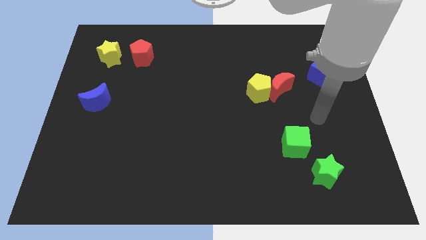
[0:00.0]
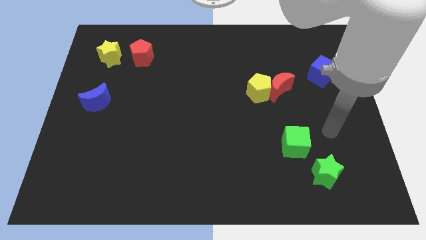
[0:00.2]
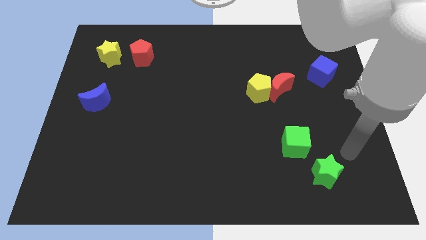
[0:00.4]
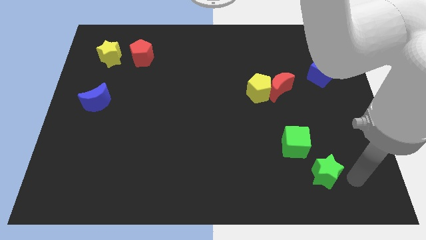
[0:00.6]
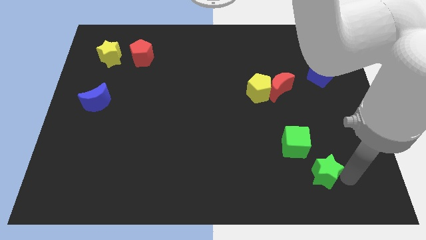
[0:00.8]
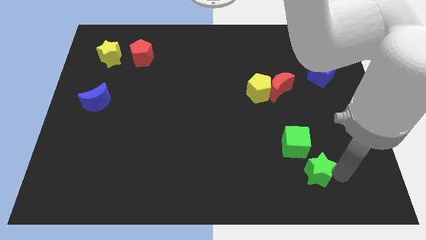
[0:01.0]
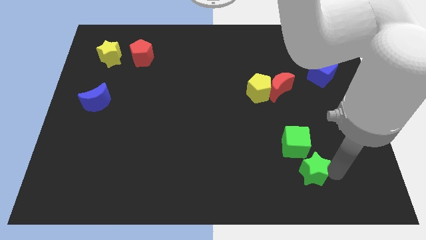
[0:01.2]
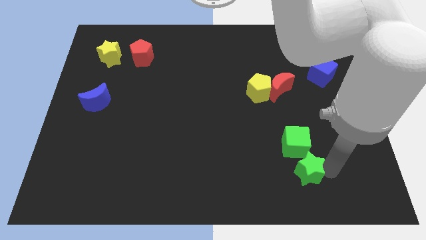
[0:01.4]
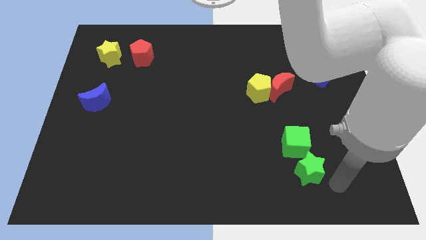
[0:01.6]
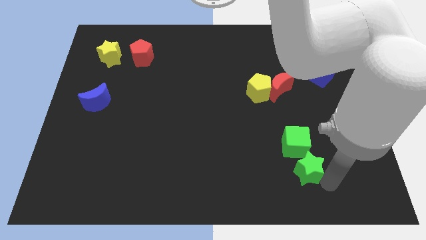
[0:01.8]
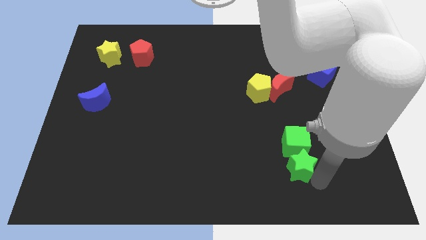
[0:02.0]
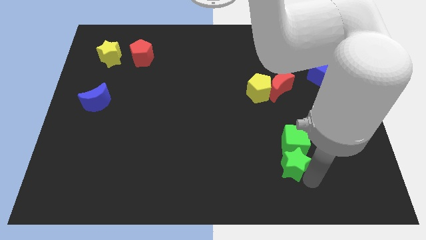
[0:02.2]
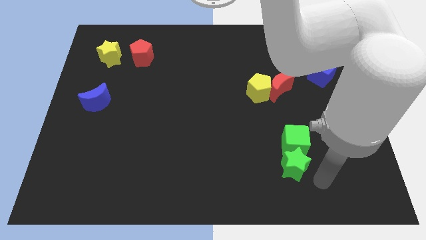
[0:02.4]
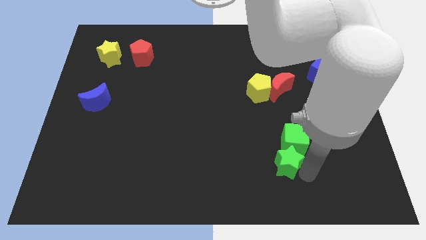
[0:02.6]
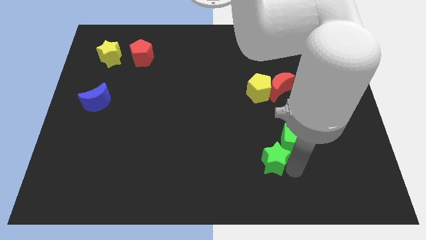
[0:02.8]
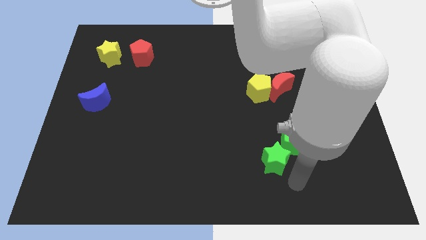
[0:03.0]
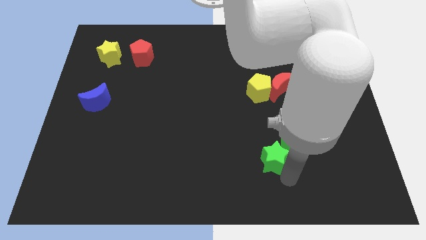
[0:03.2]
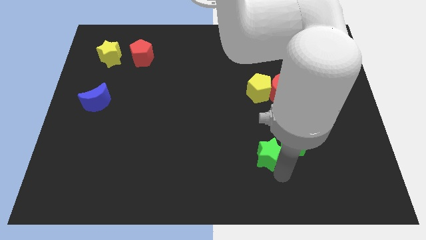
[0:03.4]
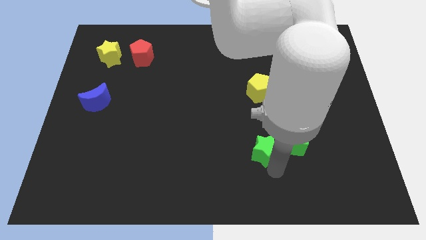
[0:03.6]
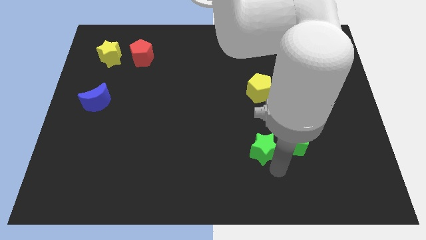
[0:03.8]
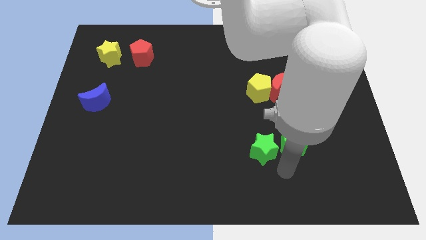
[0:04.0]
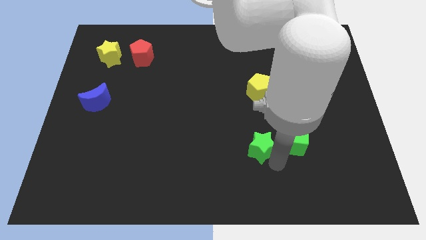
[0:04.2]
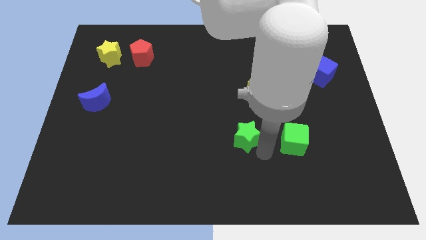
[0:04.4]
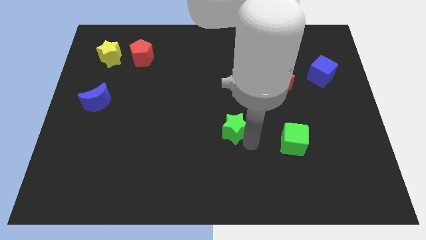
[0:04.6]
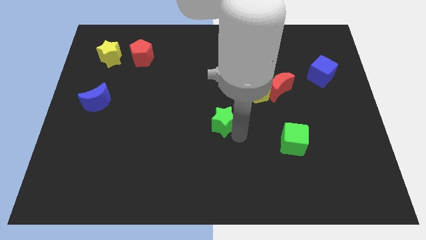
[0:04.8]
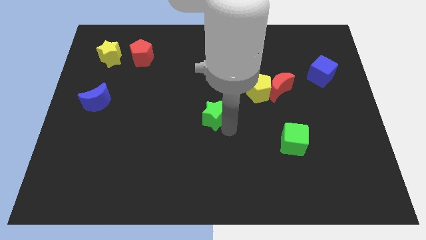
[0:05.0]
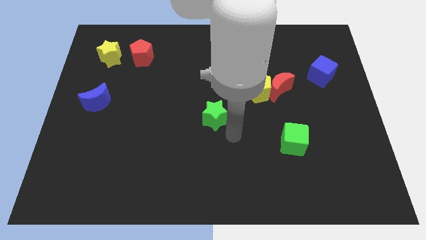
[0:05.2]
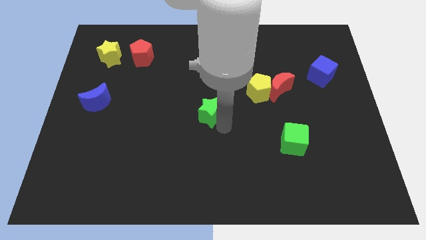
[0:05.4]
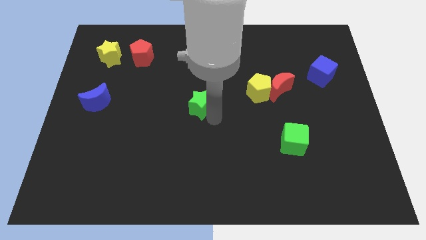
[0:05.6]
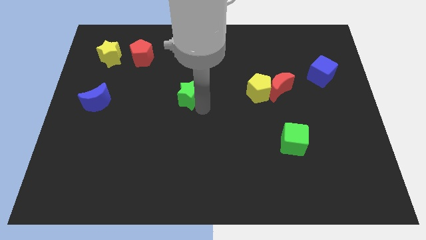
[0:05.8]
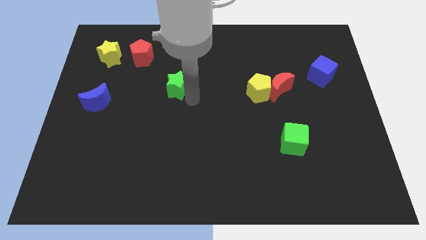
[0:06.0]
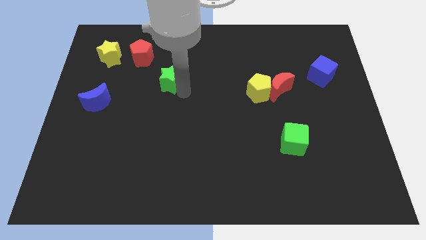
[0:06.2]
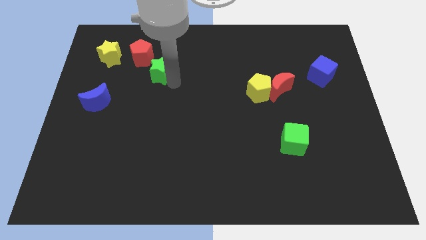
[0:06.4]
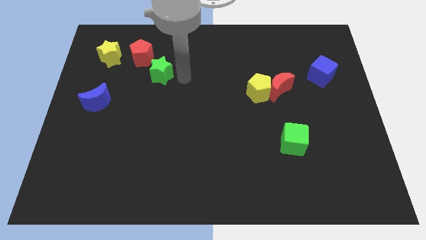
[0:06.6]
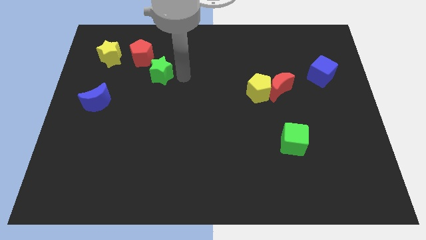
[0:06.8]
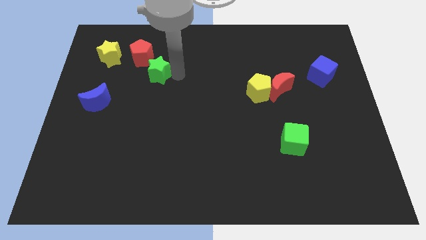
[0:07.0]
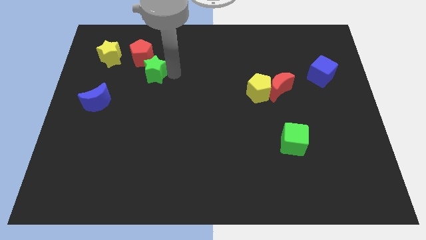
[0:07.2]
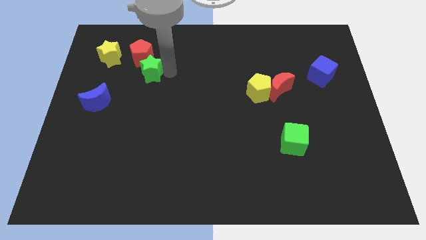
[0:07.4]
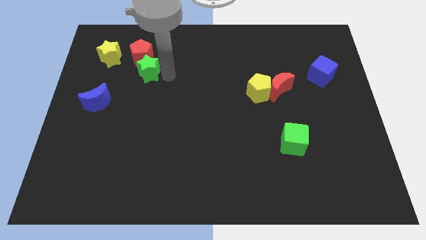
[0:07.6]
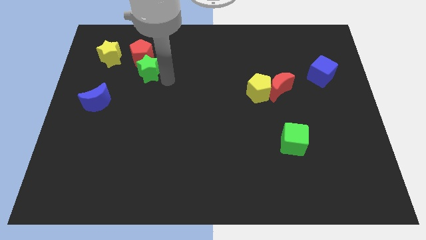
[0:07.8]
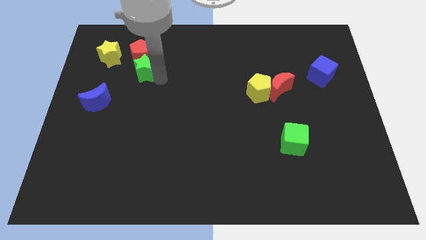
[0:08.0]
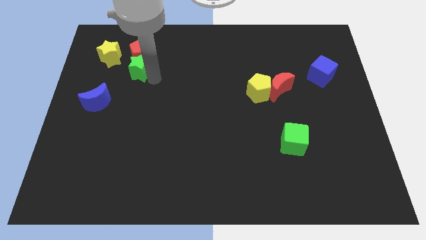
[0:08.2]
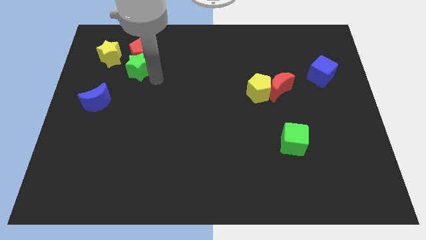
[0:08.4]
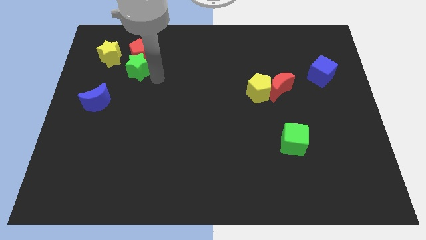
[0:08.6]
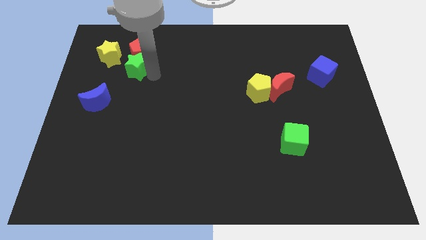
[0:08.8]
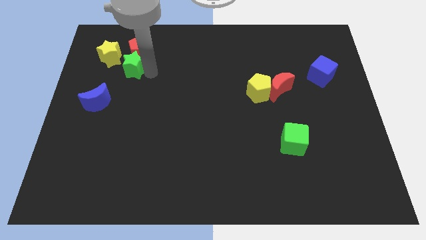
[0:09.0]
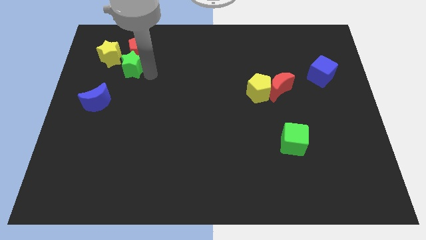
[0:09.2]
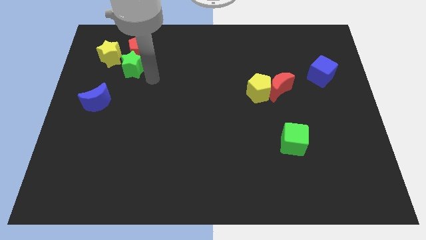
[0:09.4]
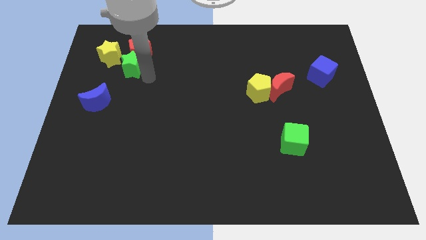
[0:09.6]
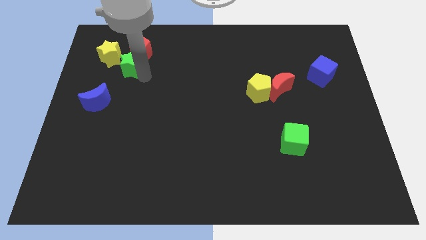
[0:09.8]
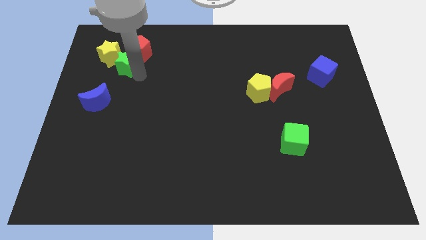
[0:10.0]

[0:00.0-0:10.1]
slide the green star next to the yellow star

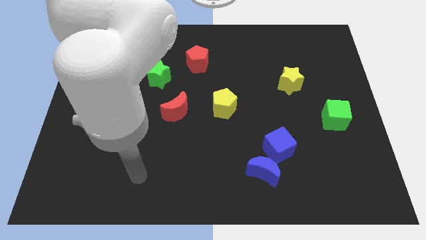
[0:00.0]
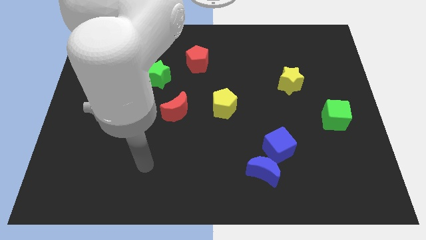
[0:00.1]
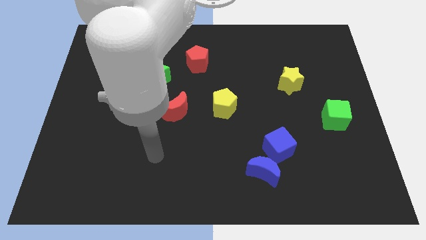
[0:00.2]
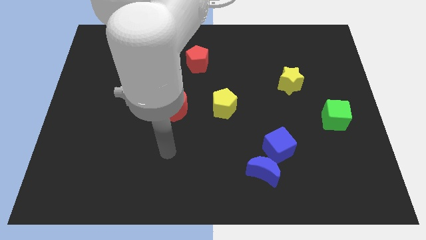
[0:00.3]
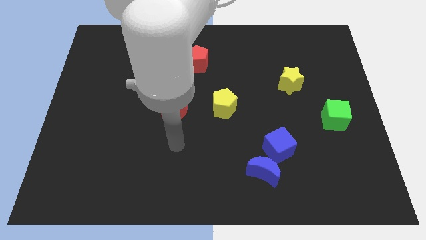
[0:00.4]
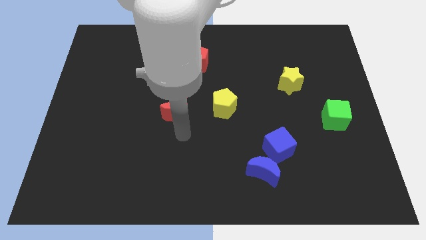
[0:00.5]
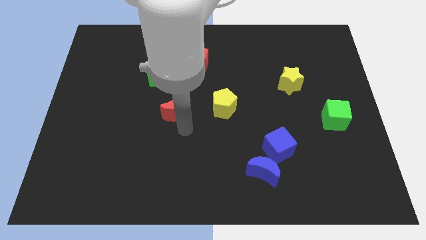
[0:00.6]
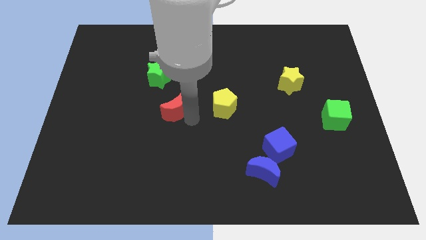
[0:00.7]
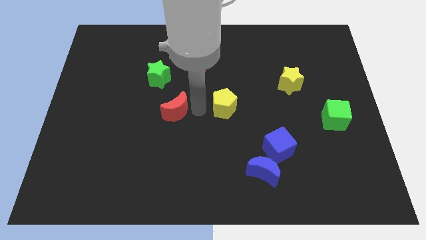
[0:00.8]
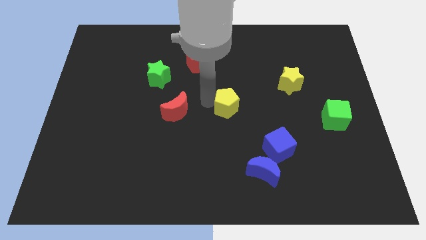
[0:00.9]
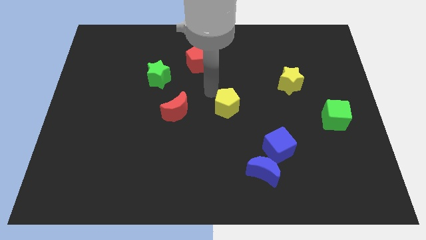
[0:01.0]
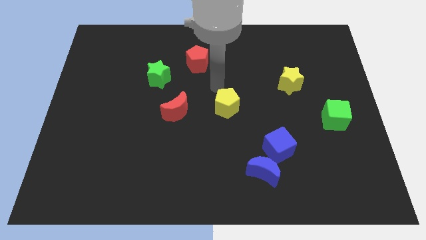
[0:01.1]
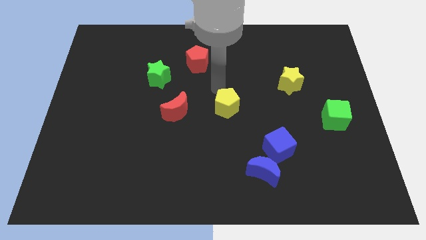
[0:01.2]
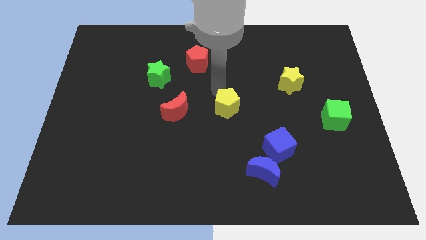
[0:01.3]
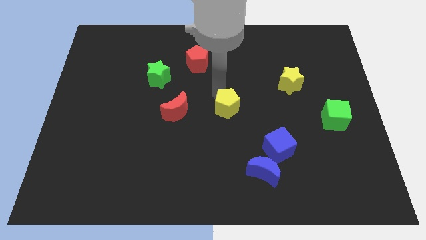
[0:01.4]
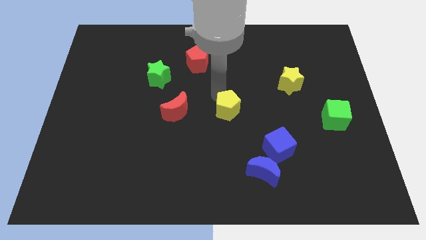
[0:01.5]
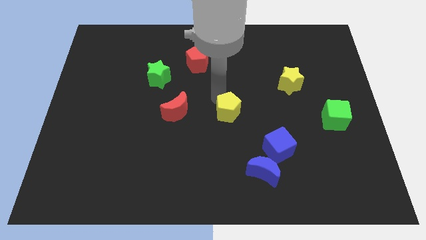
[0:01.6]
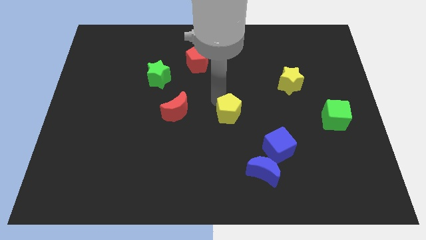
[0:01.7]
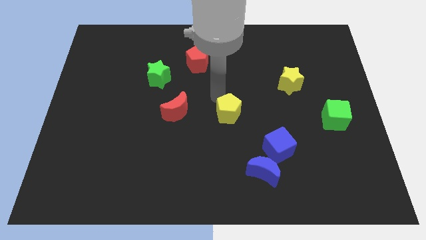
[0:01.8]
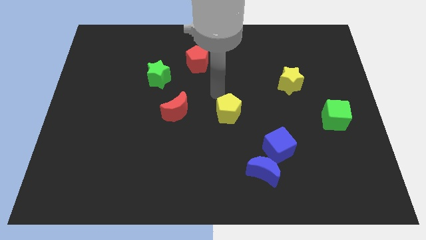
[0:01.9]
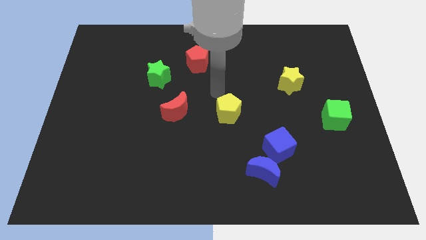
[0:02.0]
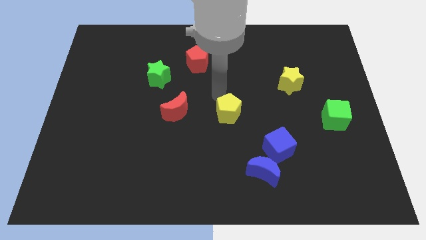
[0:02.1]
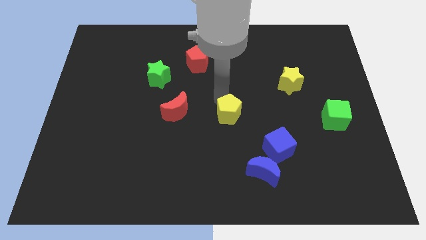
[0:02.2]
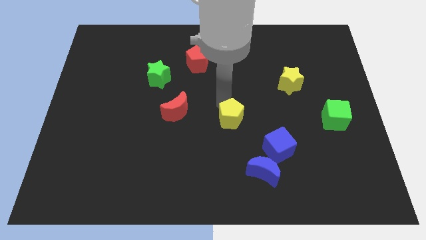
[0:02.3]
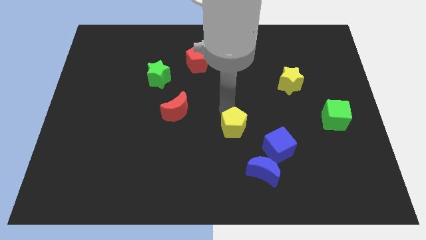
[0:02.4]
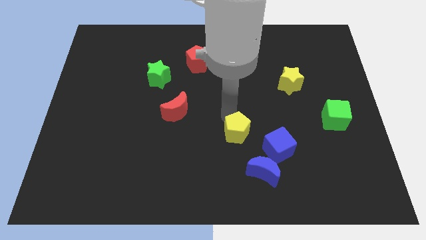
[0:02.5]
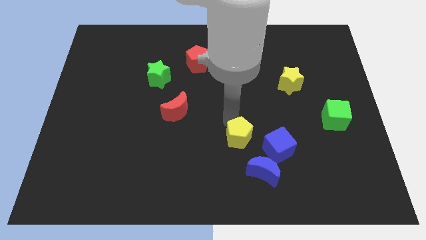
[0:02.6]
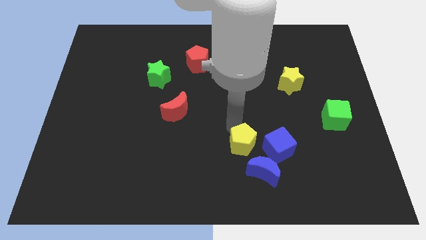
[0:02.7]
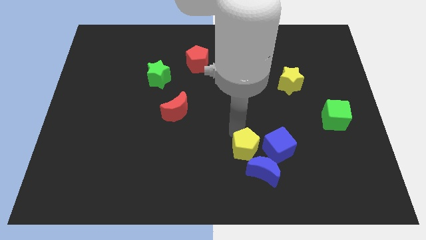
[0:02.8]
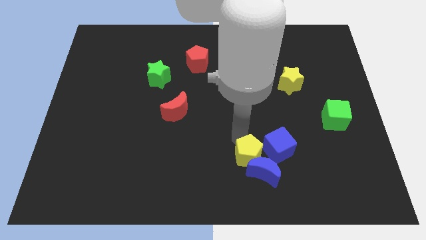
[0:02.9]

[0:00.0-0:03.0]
move the yellow pentagon towards the blue moon
